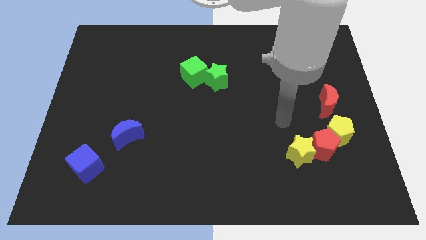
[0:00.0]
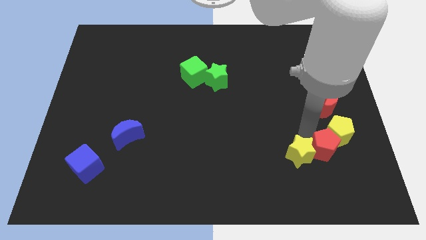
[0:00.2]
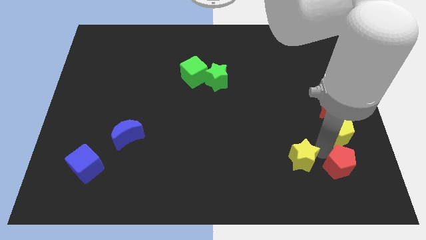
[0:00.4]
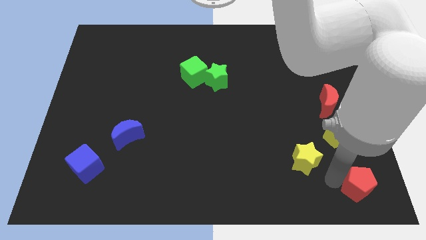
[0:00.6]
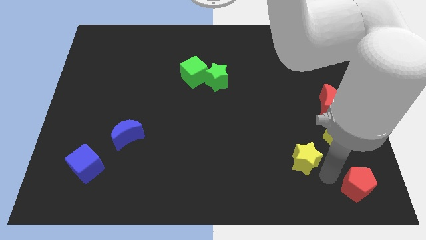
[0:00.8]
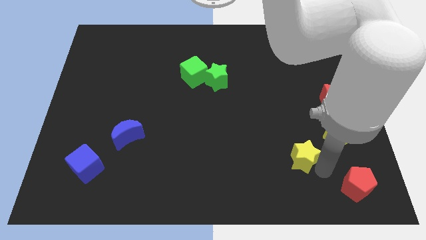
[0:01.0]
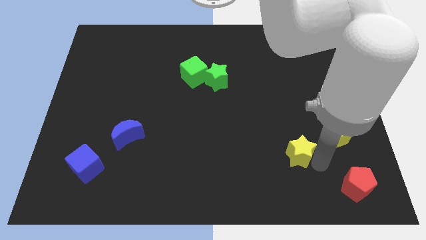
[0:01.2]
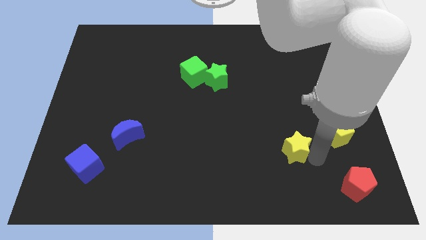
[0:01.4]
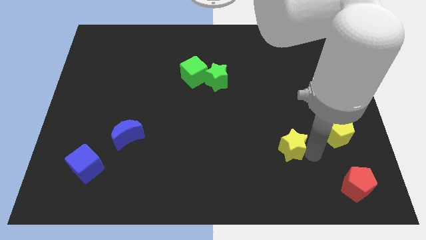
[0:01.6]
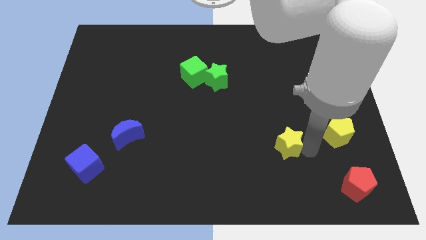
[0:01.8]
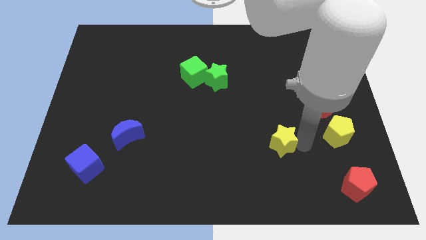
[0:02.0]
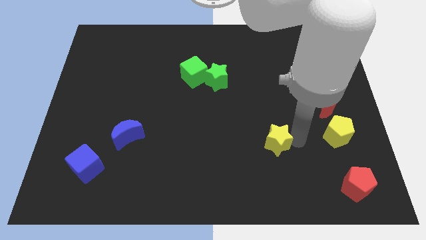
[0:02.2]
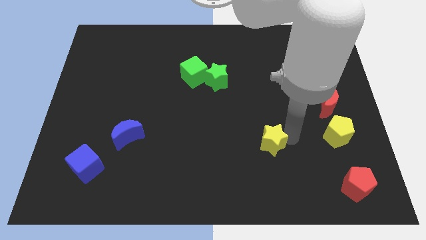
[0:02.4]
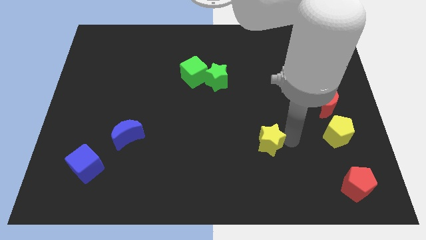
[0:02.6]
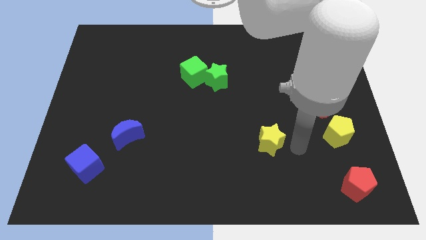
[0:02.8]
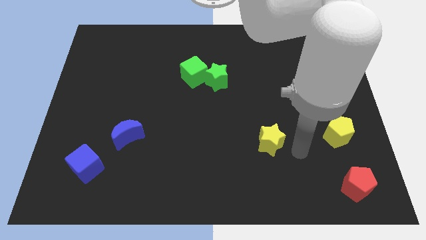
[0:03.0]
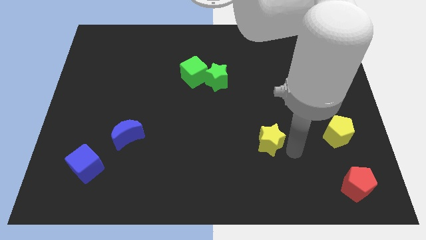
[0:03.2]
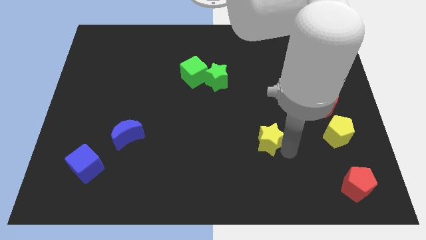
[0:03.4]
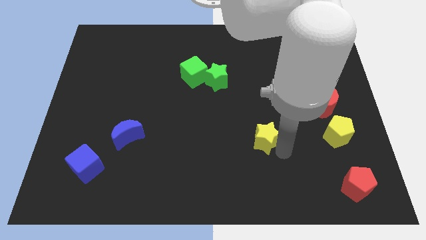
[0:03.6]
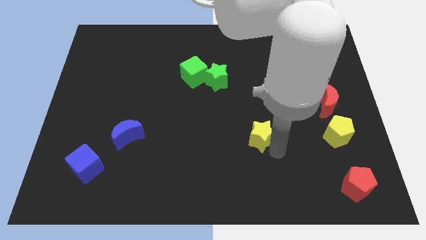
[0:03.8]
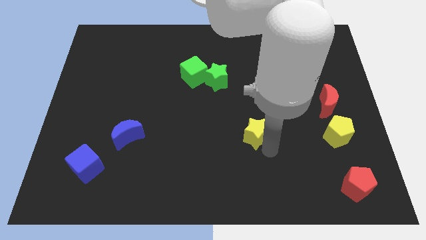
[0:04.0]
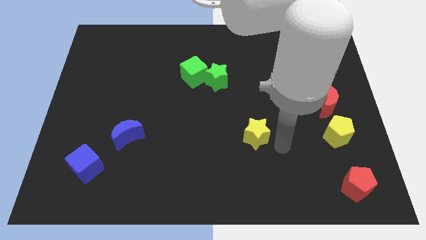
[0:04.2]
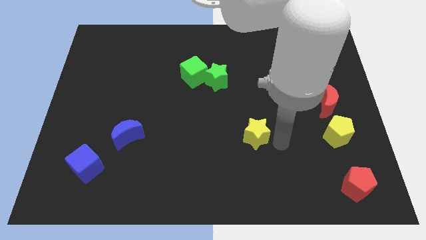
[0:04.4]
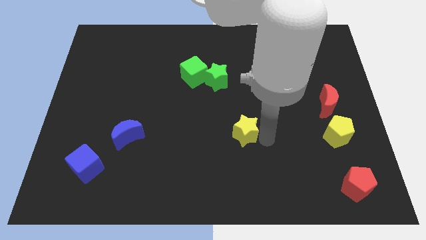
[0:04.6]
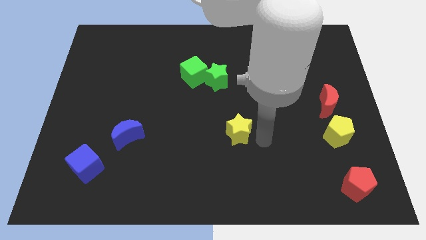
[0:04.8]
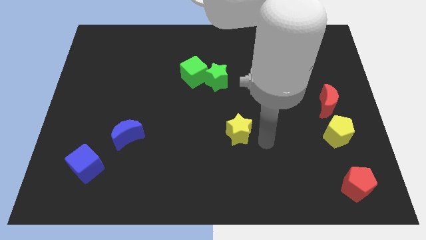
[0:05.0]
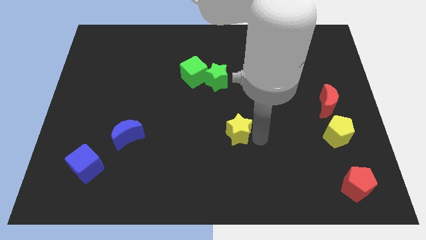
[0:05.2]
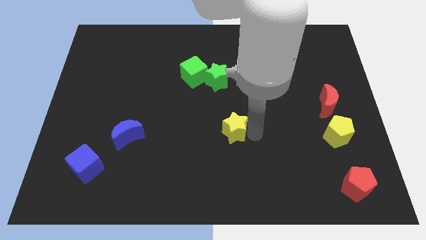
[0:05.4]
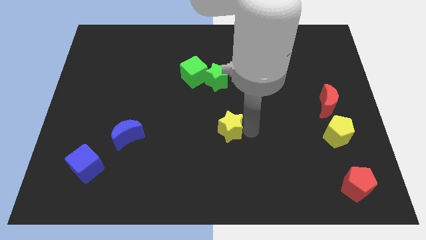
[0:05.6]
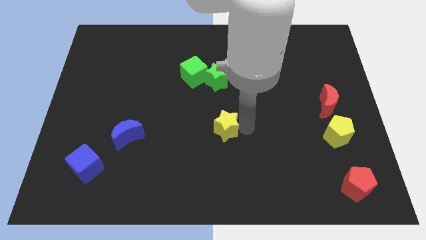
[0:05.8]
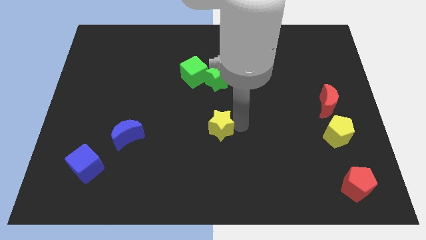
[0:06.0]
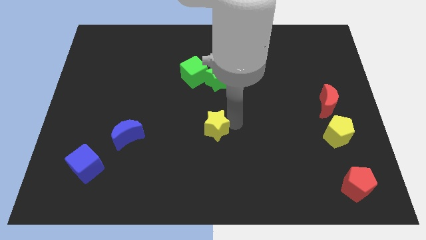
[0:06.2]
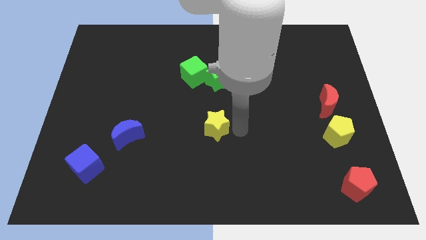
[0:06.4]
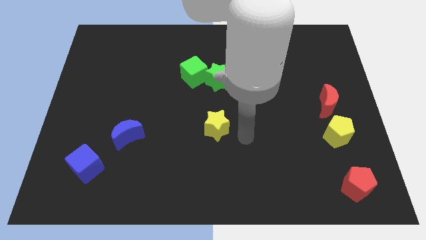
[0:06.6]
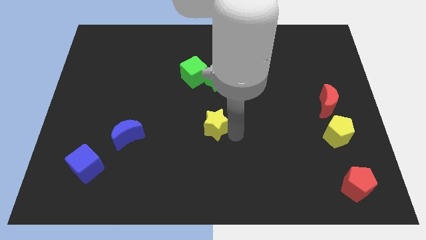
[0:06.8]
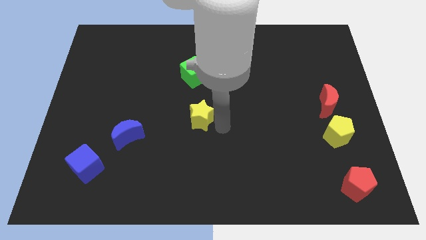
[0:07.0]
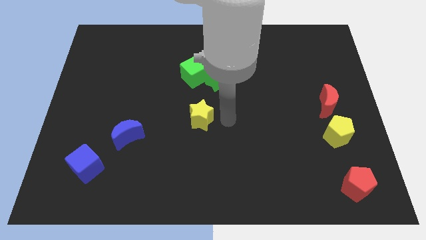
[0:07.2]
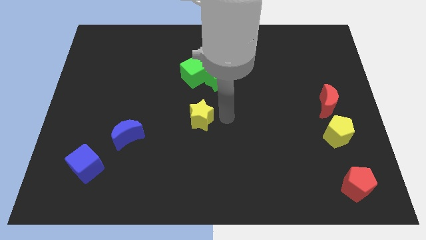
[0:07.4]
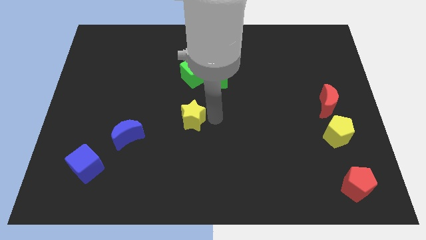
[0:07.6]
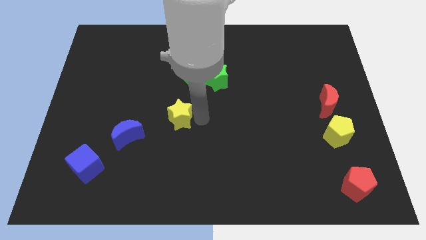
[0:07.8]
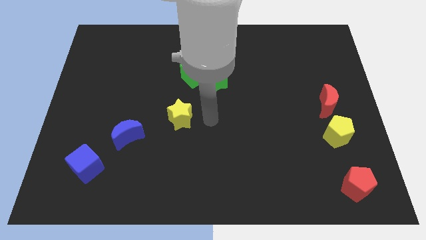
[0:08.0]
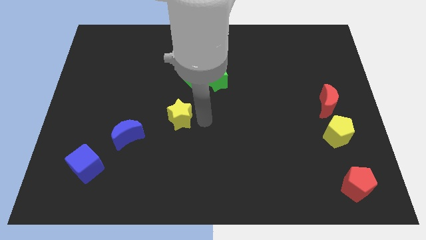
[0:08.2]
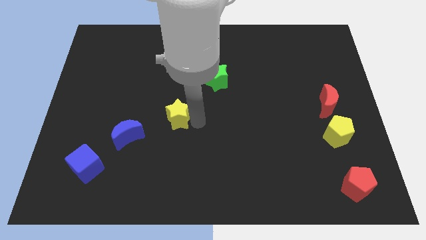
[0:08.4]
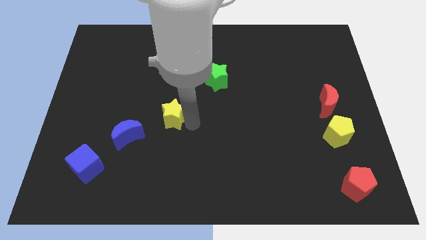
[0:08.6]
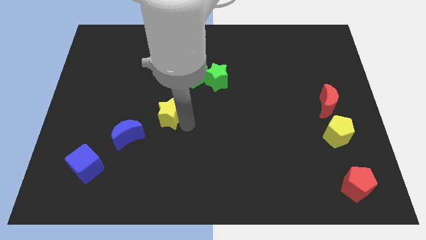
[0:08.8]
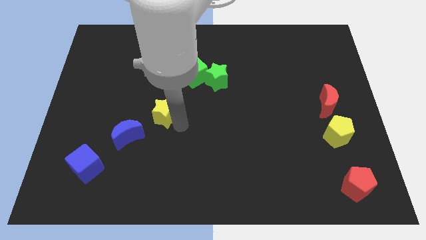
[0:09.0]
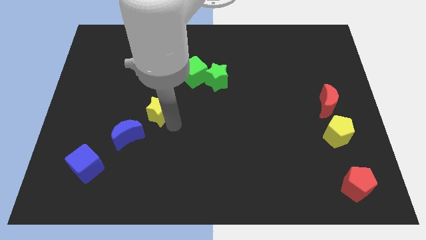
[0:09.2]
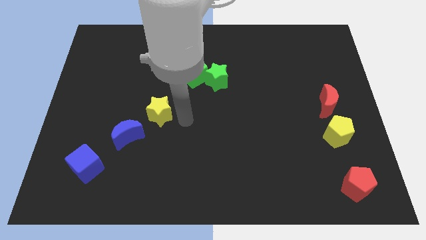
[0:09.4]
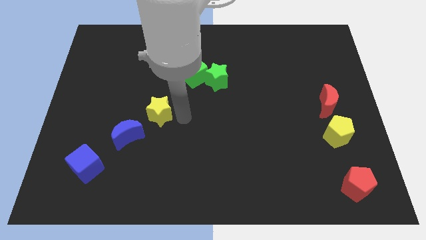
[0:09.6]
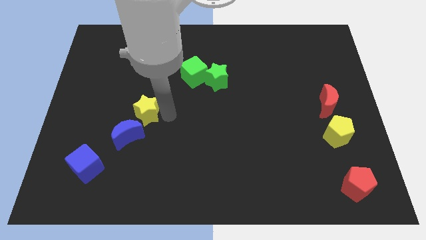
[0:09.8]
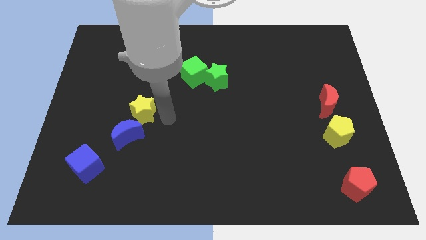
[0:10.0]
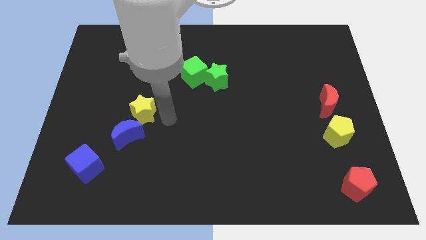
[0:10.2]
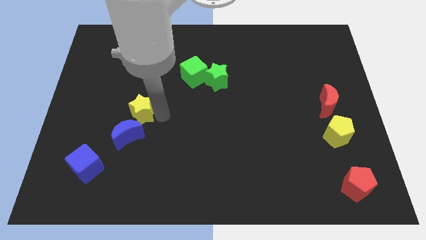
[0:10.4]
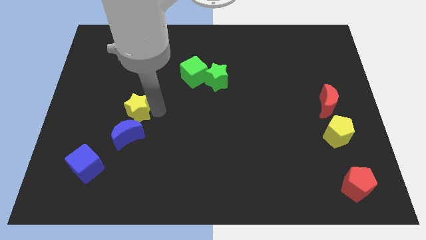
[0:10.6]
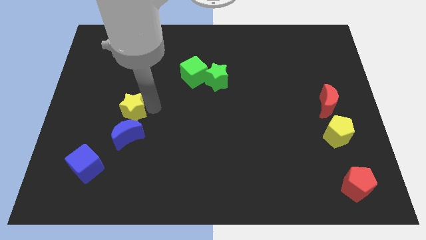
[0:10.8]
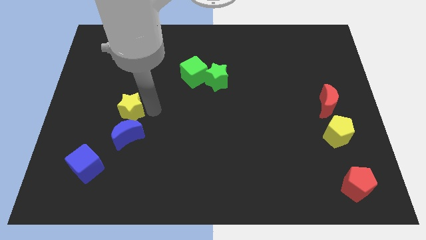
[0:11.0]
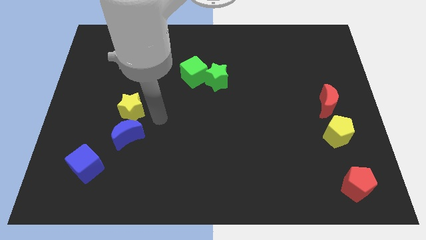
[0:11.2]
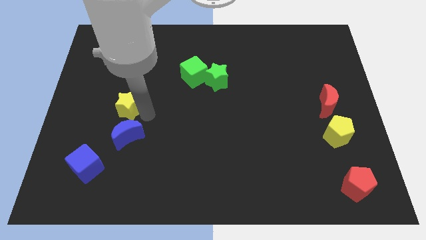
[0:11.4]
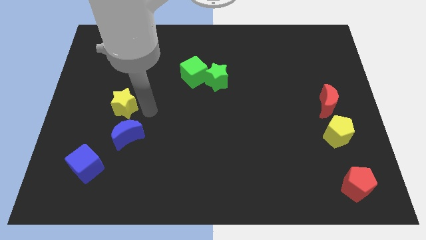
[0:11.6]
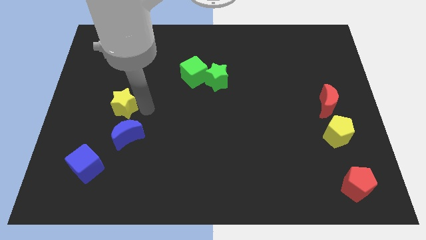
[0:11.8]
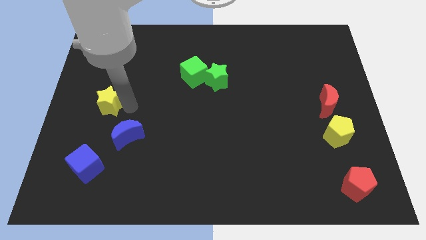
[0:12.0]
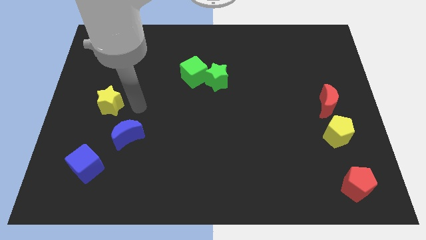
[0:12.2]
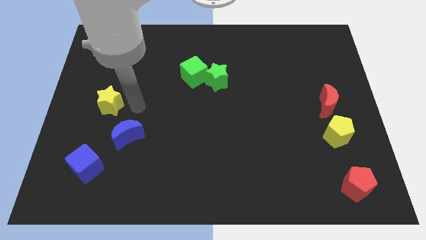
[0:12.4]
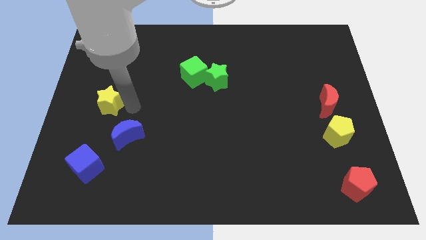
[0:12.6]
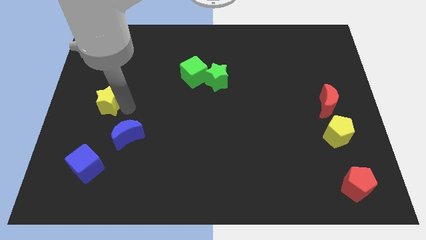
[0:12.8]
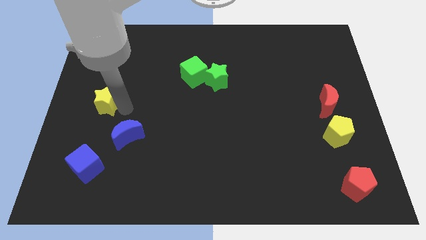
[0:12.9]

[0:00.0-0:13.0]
put the yellow star to the left side of the board

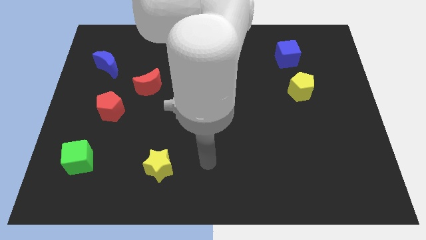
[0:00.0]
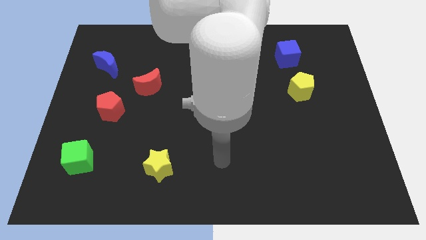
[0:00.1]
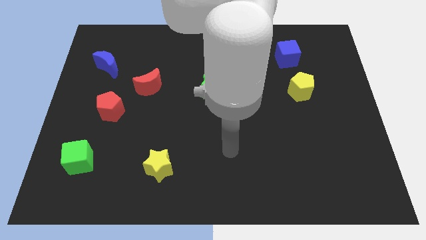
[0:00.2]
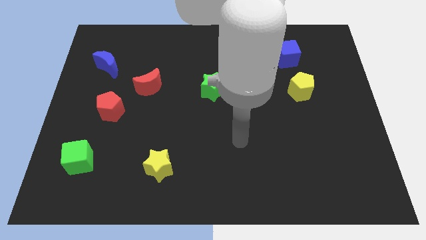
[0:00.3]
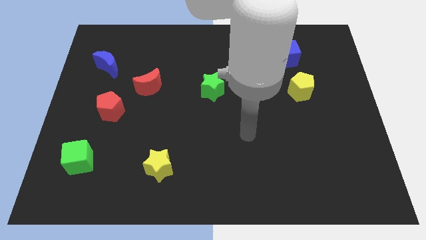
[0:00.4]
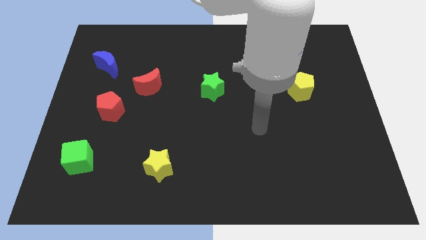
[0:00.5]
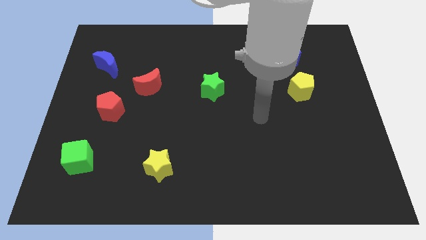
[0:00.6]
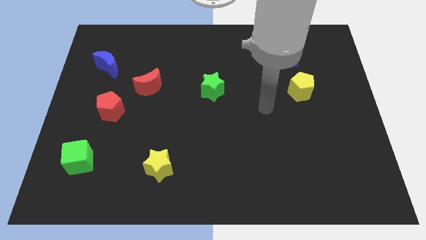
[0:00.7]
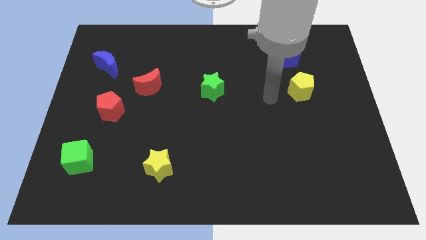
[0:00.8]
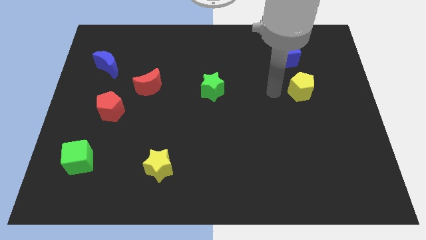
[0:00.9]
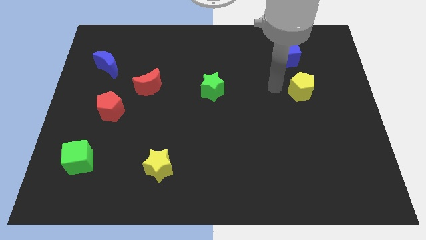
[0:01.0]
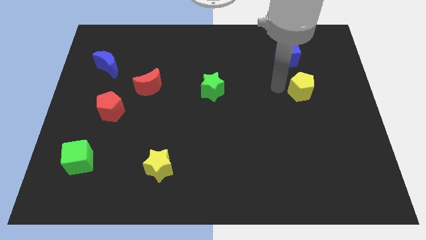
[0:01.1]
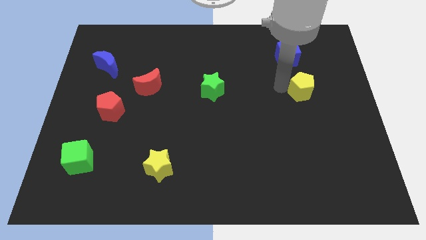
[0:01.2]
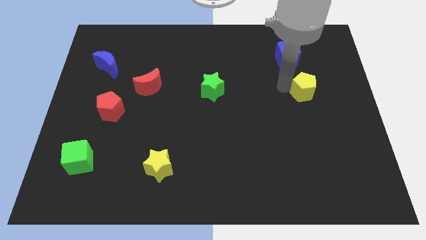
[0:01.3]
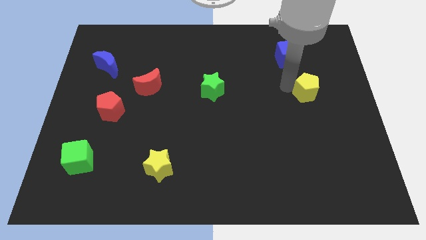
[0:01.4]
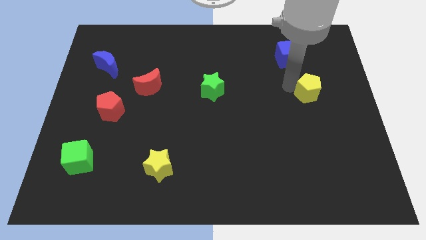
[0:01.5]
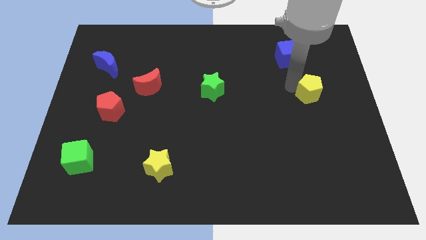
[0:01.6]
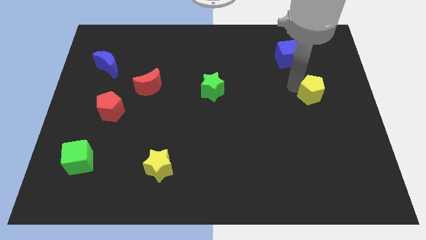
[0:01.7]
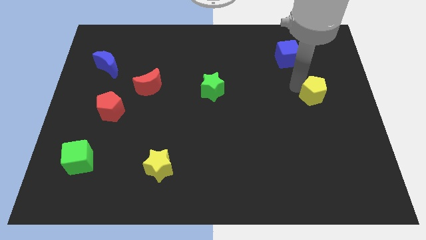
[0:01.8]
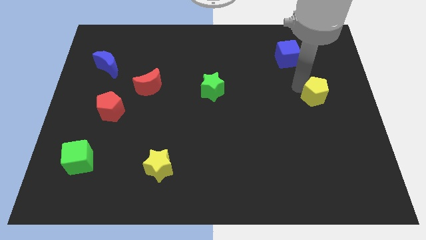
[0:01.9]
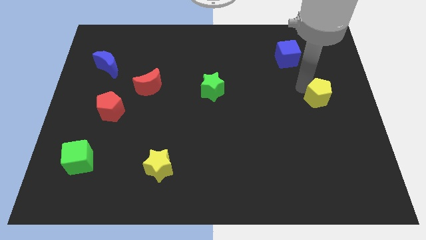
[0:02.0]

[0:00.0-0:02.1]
put the yellow pentagon to the right side of the board
